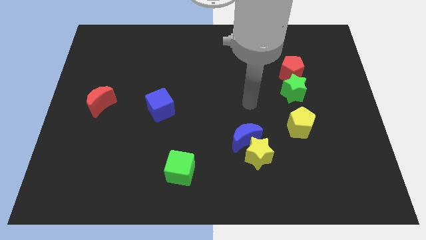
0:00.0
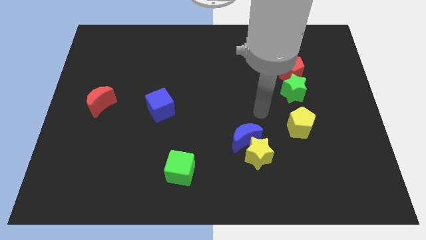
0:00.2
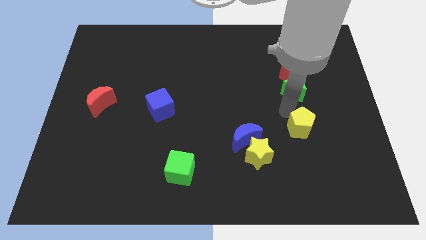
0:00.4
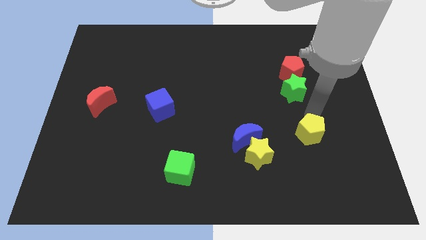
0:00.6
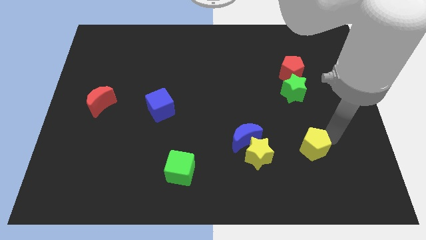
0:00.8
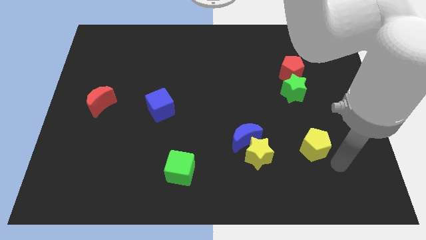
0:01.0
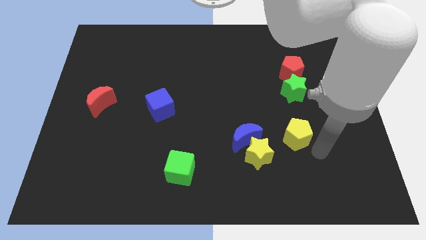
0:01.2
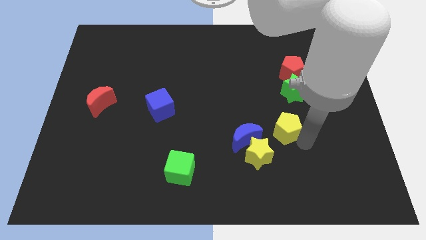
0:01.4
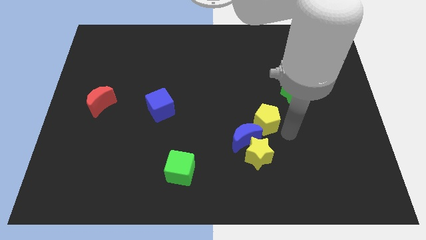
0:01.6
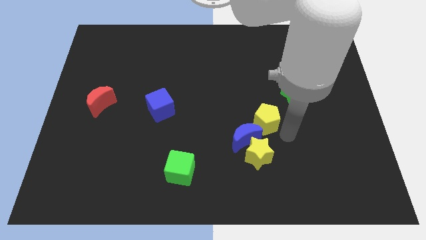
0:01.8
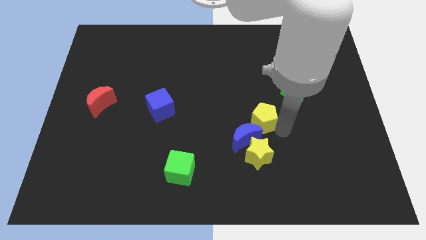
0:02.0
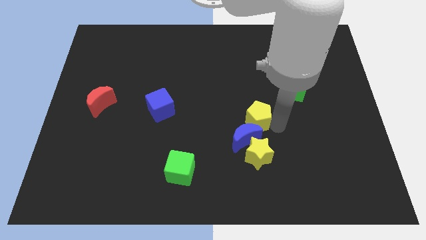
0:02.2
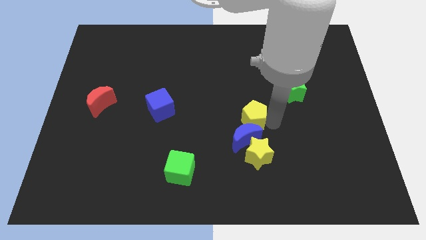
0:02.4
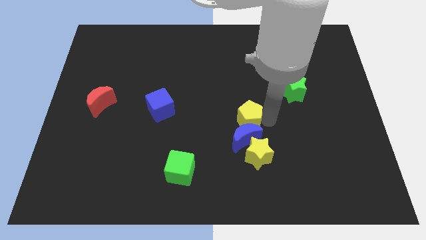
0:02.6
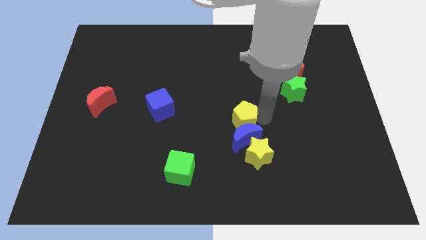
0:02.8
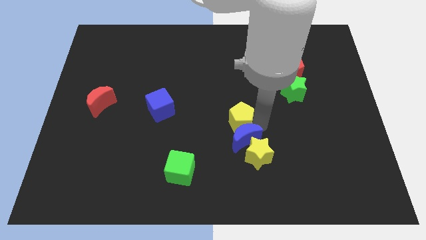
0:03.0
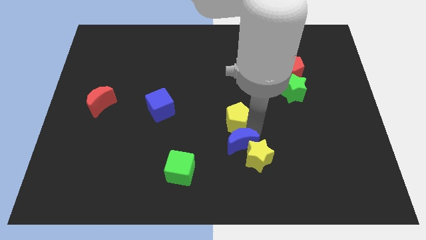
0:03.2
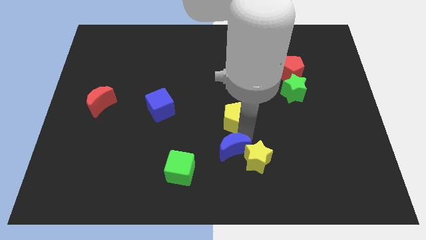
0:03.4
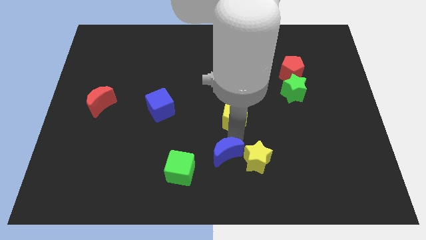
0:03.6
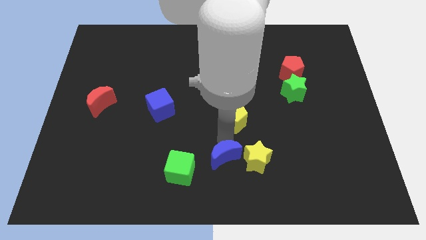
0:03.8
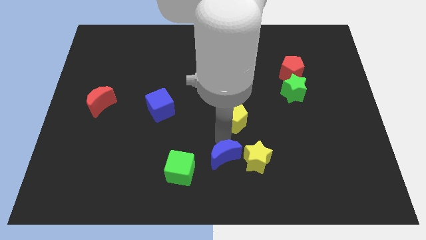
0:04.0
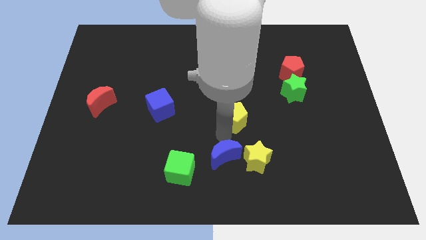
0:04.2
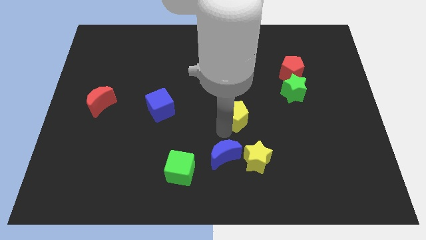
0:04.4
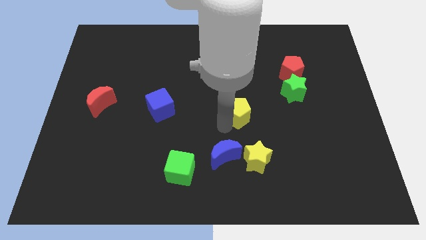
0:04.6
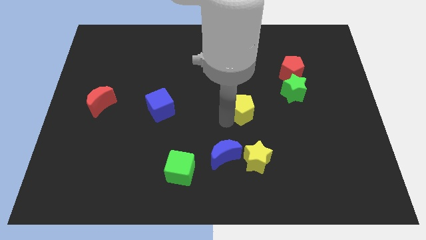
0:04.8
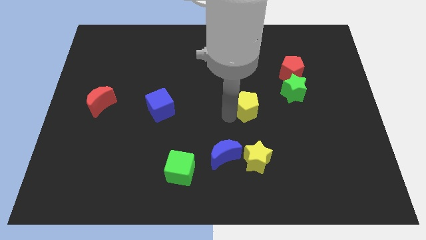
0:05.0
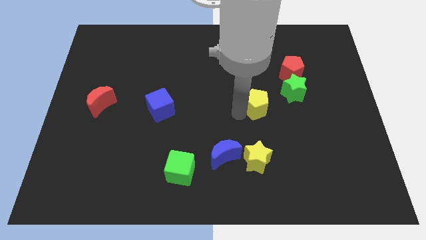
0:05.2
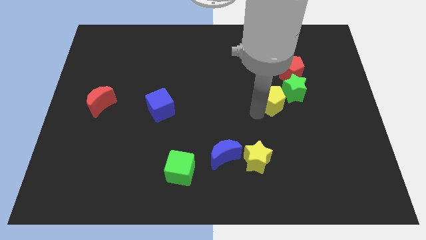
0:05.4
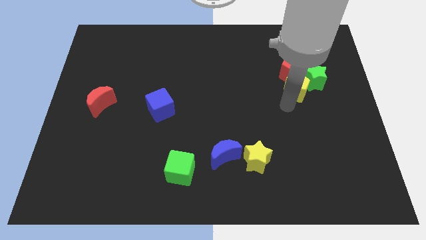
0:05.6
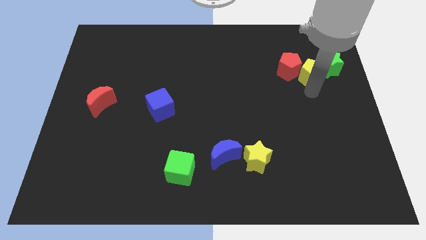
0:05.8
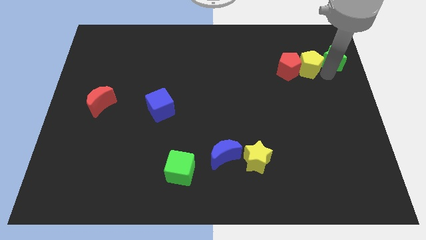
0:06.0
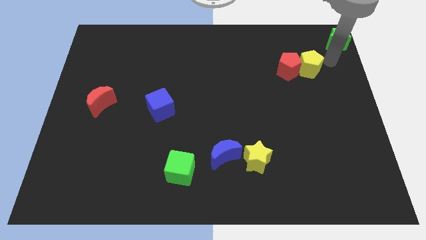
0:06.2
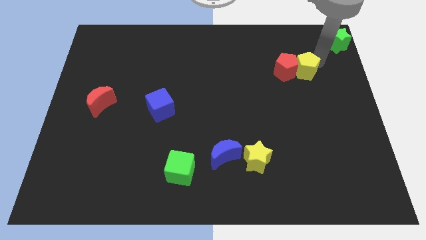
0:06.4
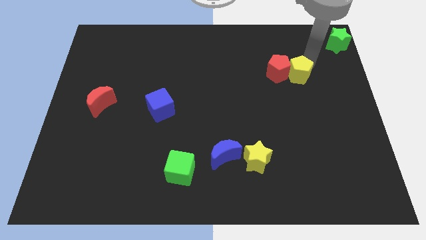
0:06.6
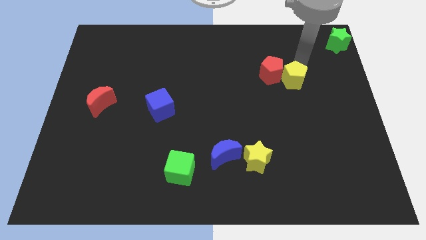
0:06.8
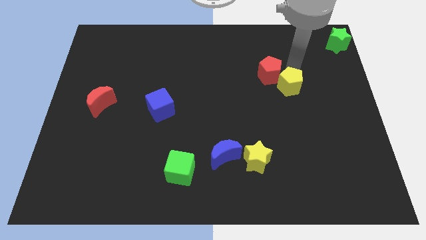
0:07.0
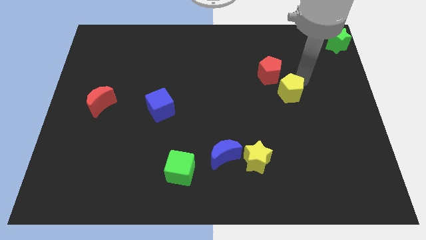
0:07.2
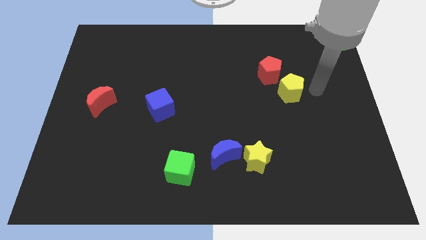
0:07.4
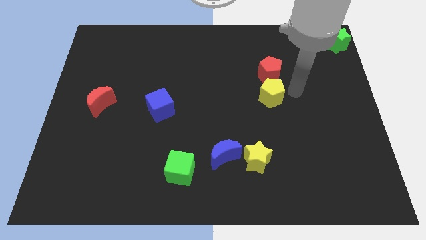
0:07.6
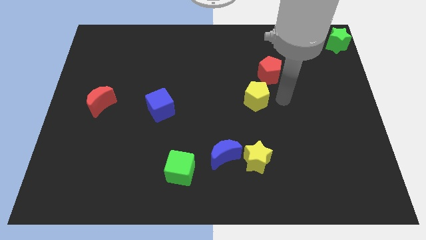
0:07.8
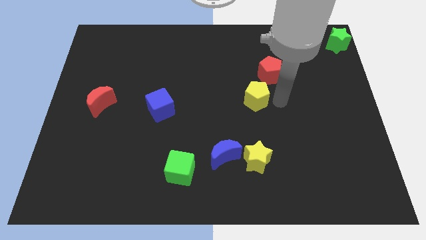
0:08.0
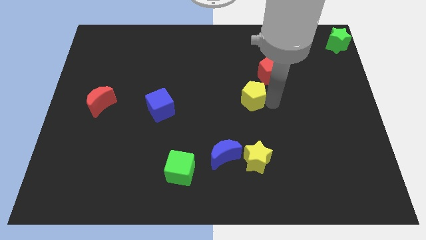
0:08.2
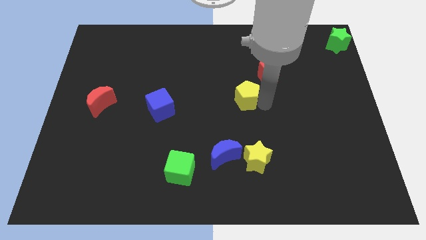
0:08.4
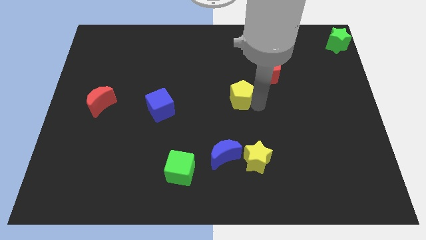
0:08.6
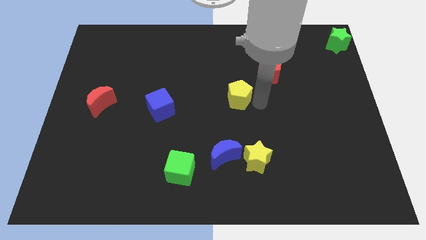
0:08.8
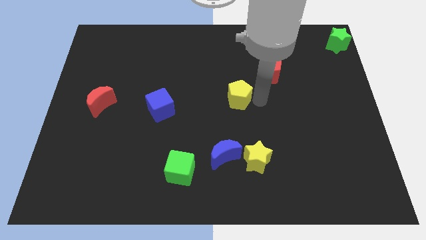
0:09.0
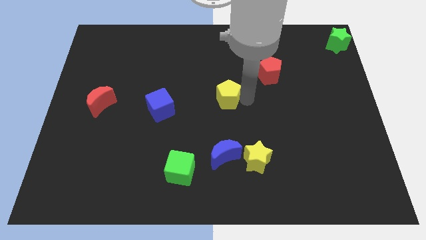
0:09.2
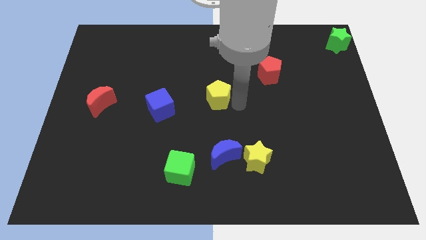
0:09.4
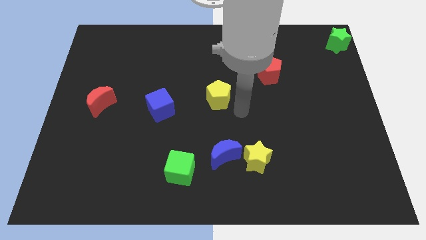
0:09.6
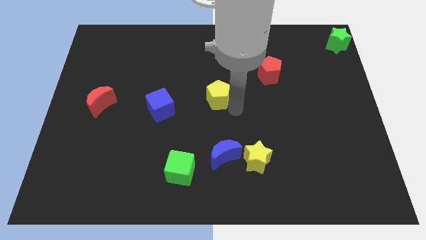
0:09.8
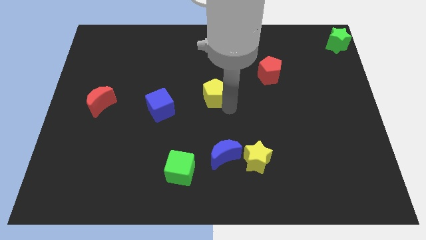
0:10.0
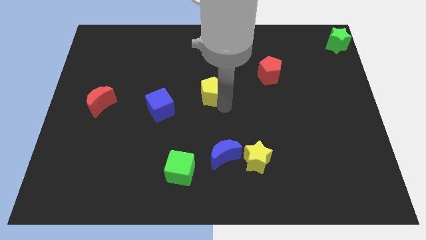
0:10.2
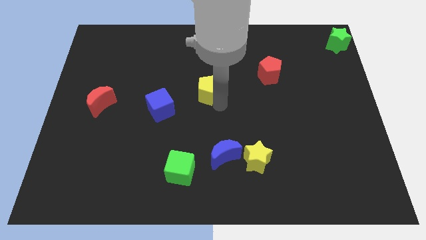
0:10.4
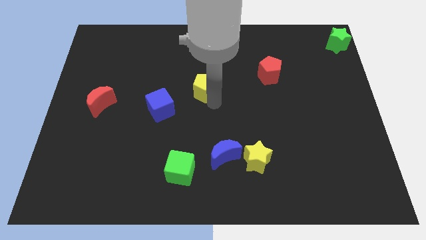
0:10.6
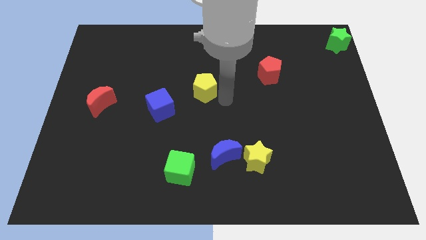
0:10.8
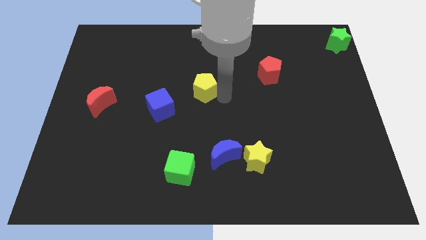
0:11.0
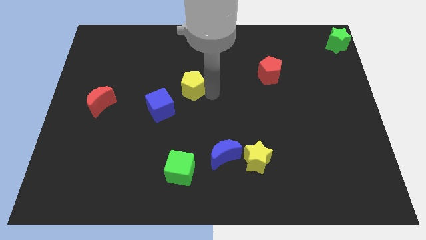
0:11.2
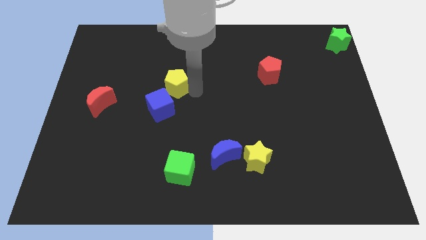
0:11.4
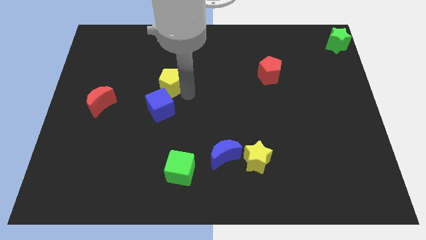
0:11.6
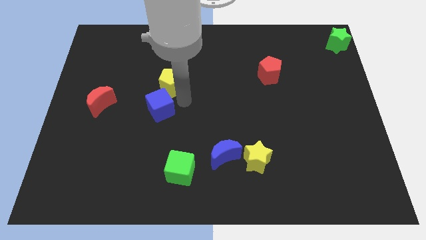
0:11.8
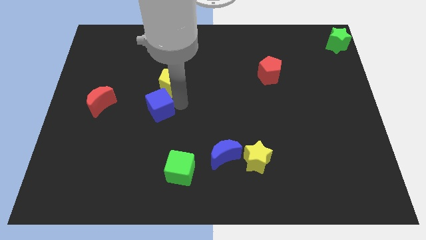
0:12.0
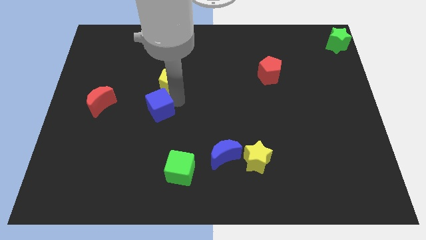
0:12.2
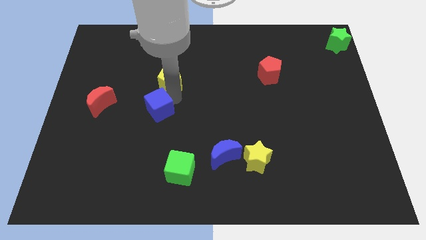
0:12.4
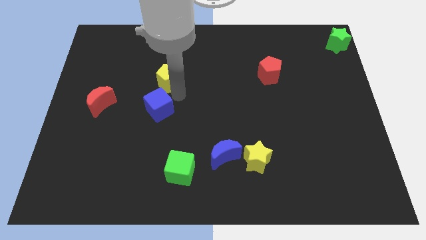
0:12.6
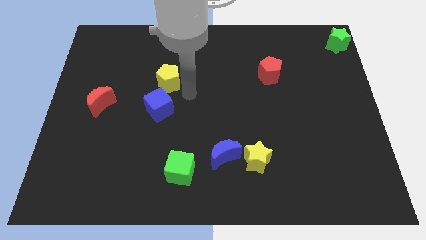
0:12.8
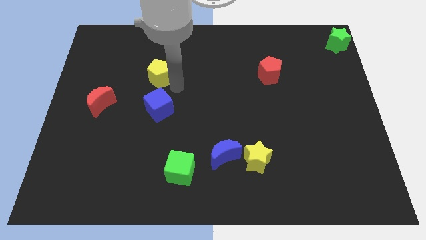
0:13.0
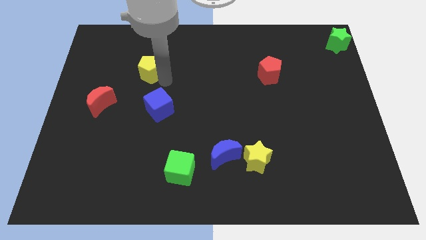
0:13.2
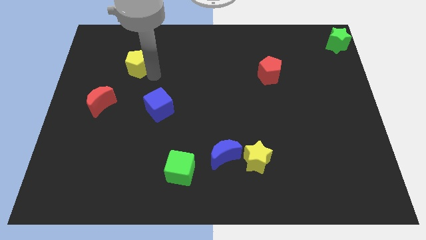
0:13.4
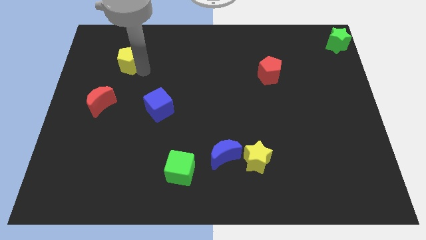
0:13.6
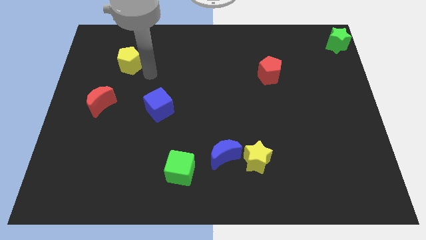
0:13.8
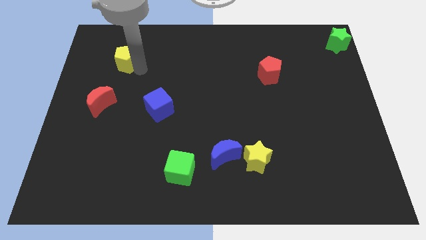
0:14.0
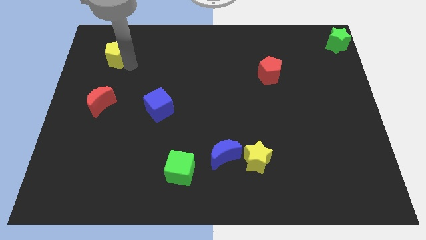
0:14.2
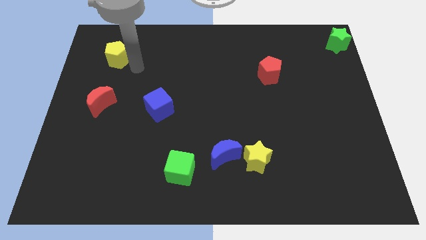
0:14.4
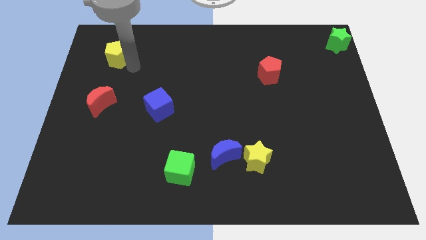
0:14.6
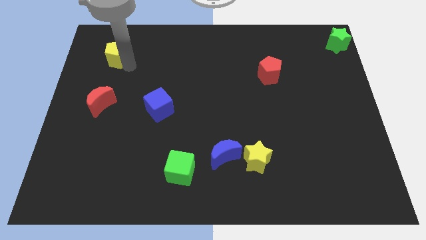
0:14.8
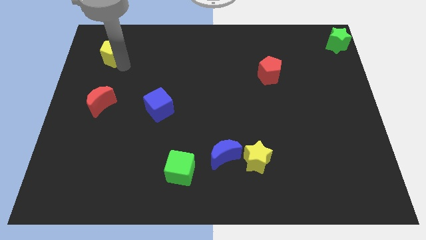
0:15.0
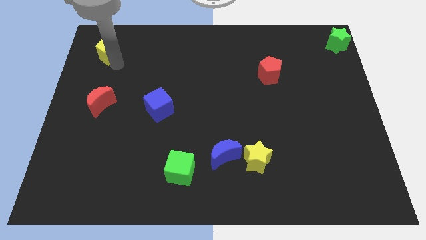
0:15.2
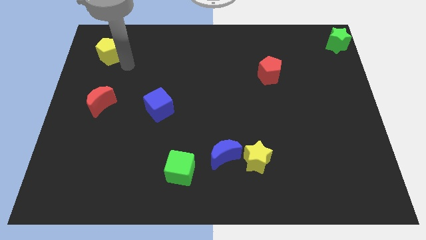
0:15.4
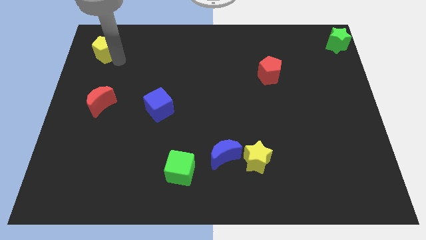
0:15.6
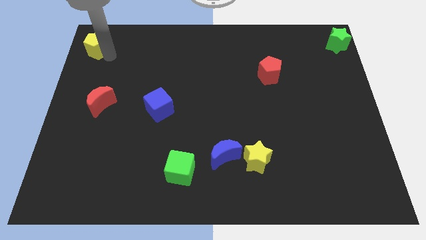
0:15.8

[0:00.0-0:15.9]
move the yellow pentagon to the upper left corner
